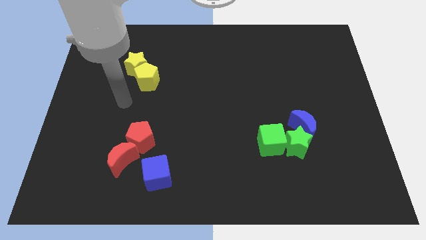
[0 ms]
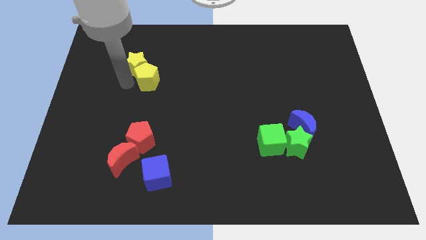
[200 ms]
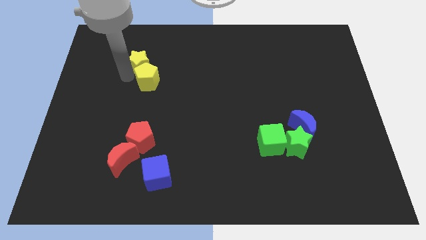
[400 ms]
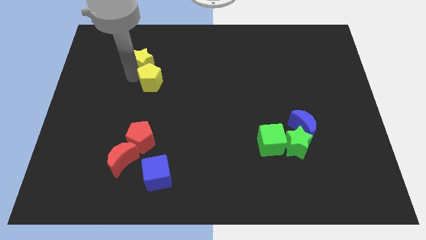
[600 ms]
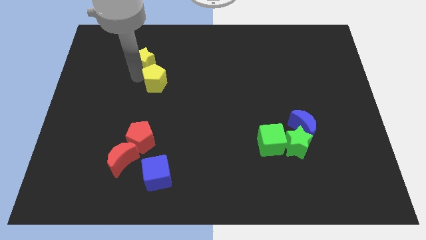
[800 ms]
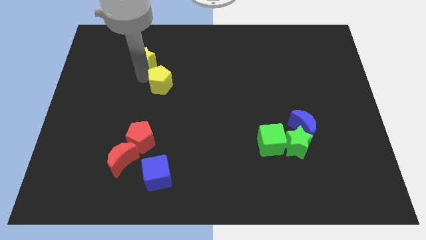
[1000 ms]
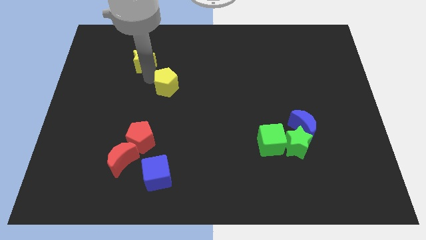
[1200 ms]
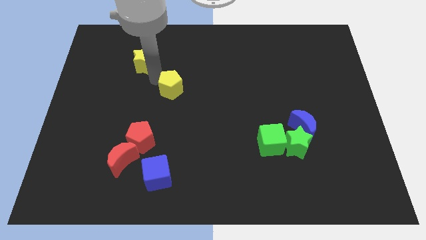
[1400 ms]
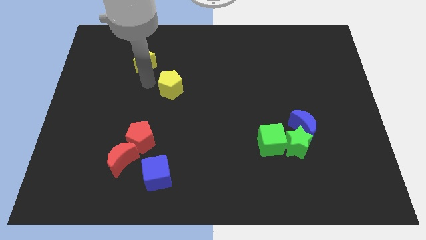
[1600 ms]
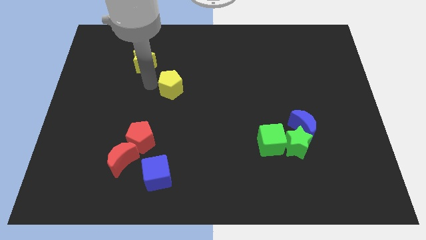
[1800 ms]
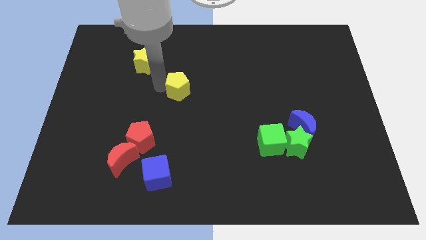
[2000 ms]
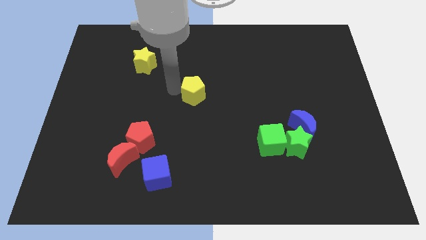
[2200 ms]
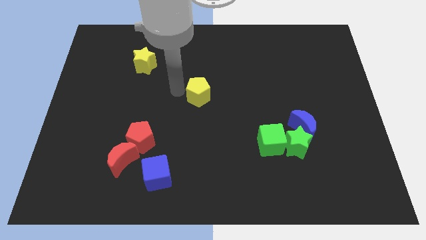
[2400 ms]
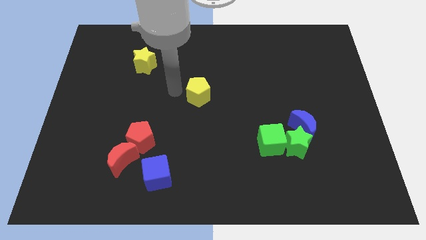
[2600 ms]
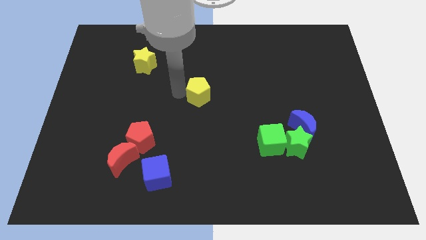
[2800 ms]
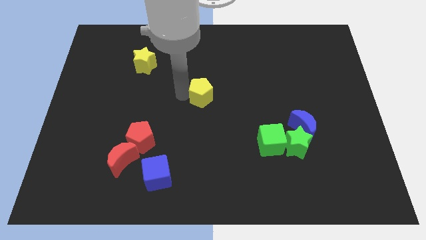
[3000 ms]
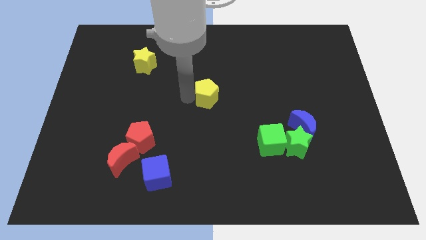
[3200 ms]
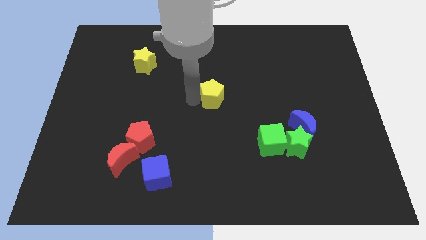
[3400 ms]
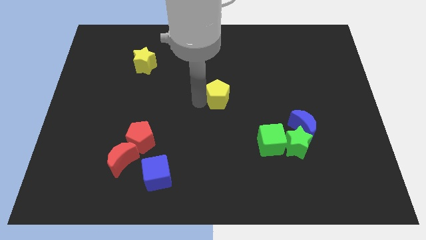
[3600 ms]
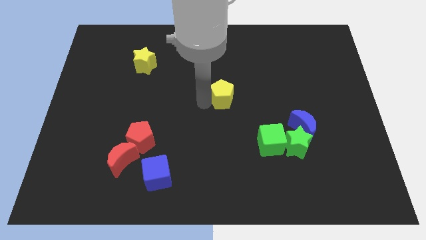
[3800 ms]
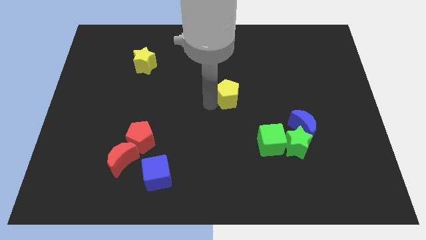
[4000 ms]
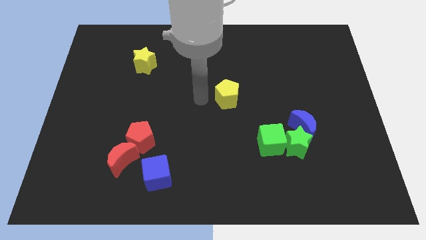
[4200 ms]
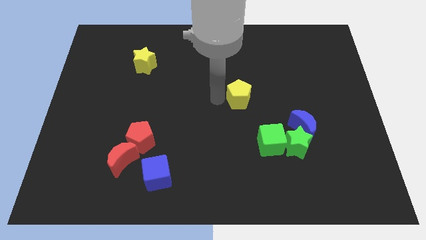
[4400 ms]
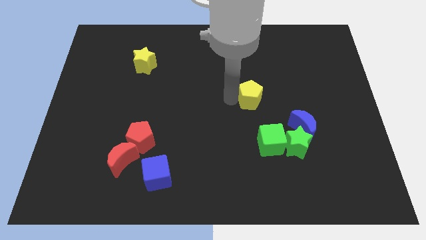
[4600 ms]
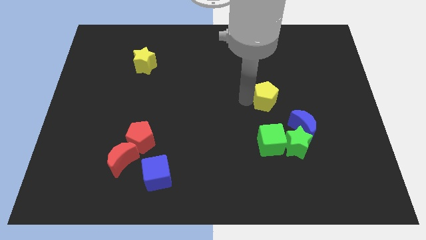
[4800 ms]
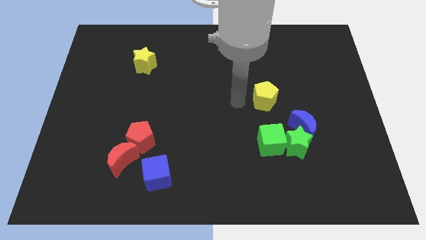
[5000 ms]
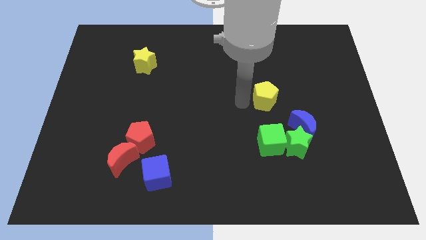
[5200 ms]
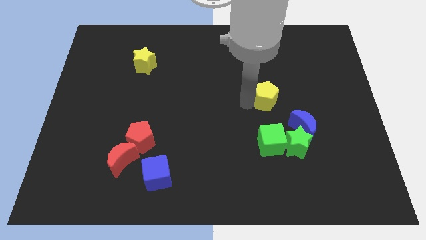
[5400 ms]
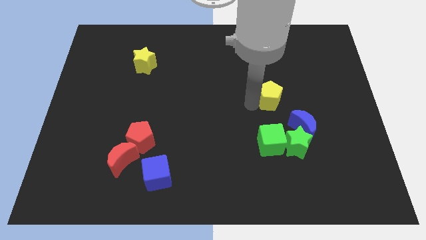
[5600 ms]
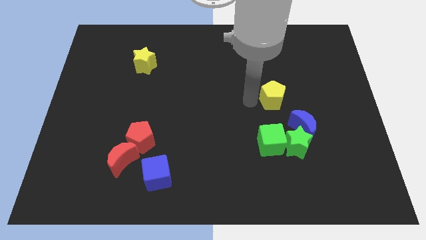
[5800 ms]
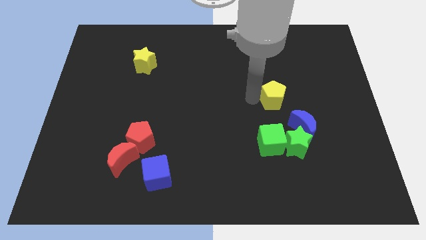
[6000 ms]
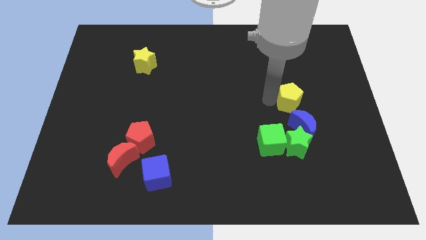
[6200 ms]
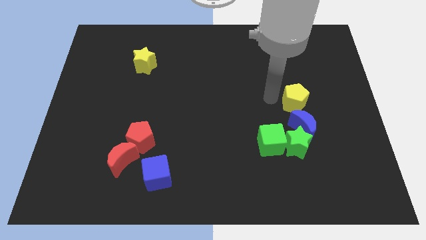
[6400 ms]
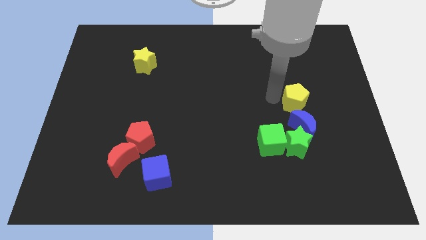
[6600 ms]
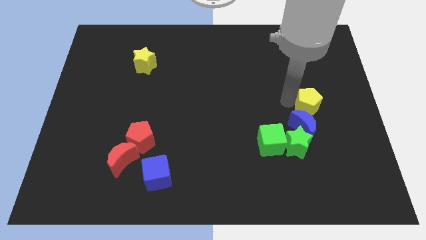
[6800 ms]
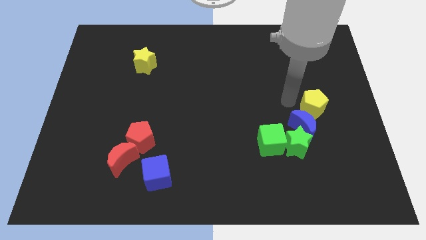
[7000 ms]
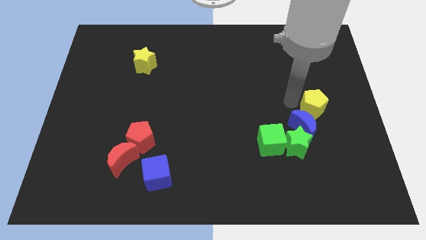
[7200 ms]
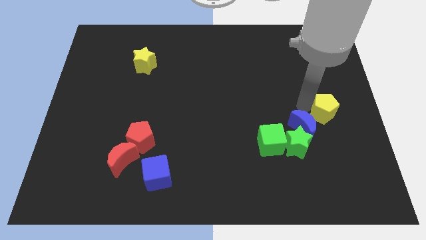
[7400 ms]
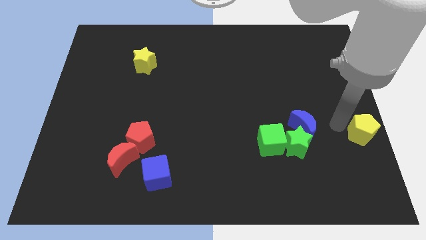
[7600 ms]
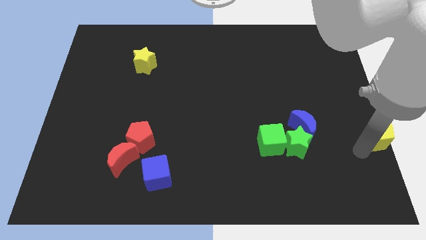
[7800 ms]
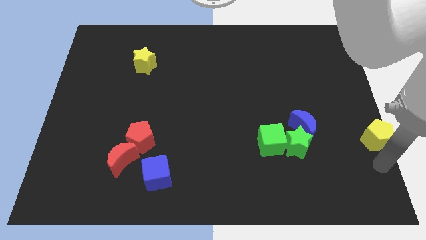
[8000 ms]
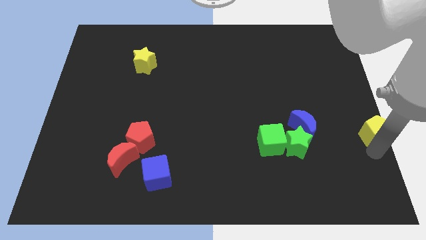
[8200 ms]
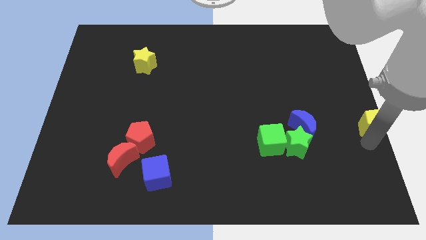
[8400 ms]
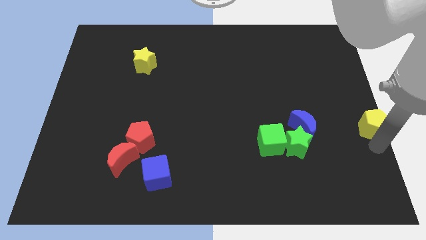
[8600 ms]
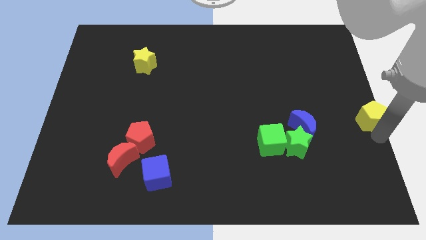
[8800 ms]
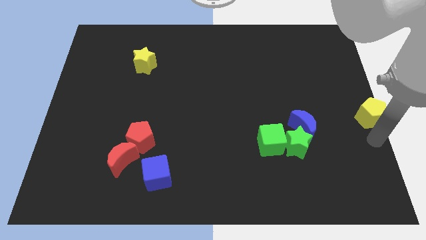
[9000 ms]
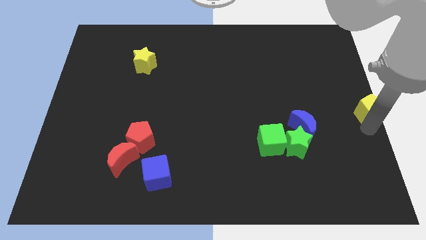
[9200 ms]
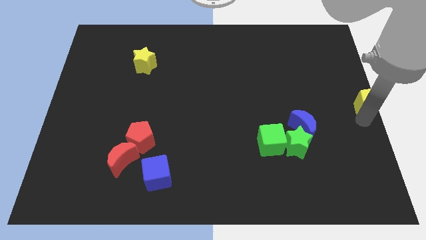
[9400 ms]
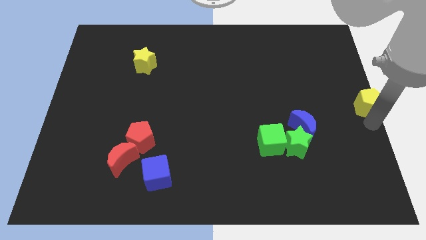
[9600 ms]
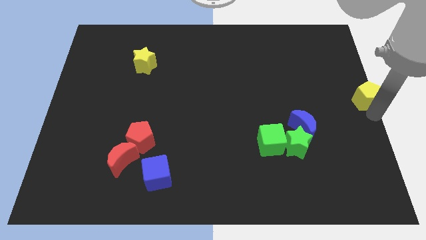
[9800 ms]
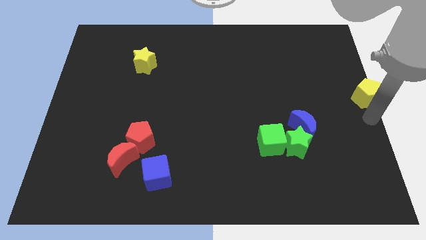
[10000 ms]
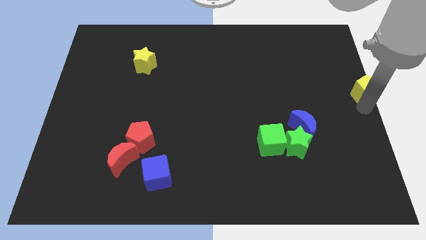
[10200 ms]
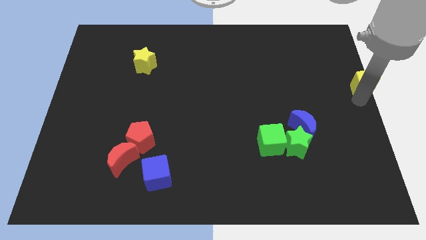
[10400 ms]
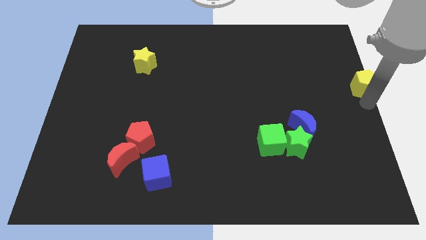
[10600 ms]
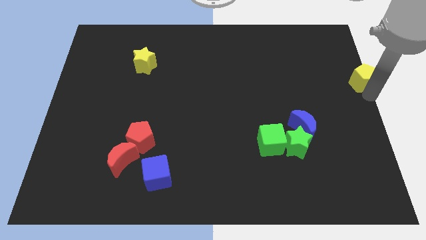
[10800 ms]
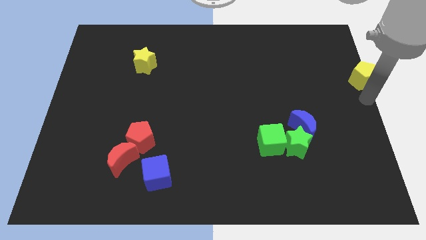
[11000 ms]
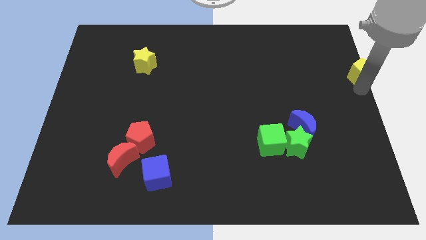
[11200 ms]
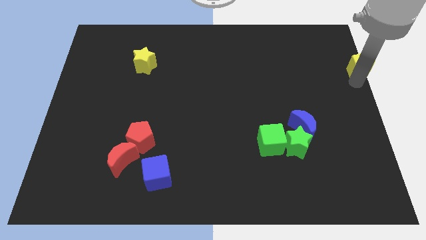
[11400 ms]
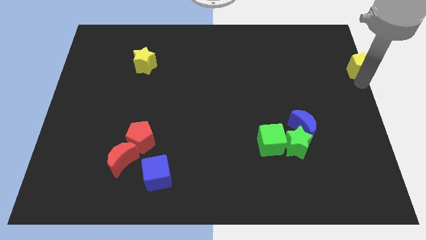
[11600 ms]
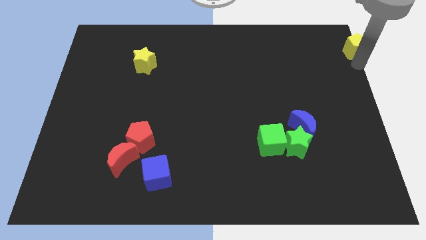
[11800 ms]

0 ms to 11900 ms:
push the yellow pentagon to the top right of the board

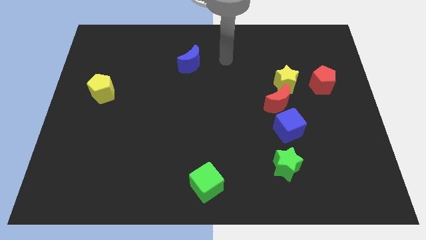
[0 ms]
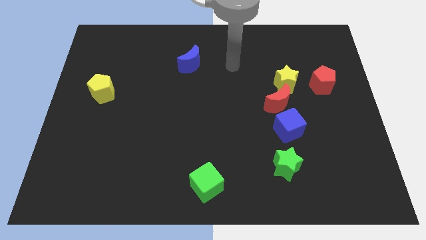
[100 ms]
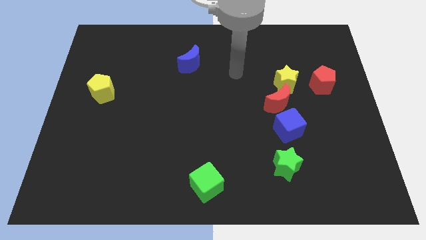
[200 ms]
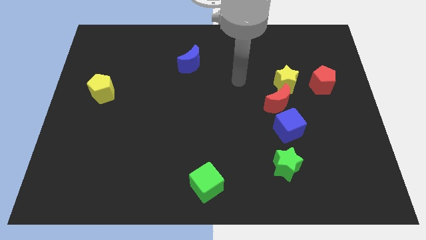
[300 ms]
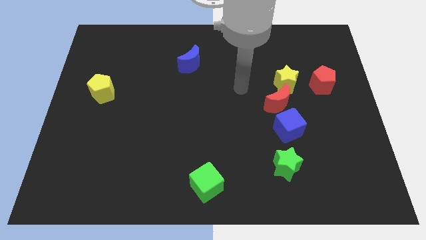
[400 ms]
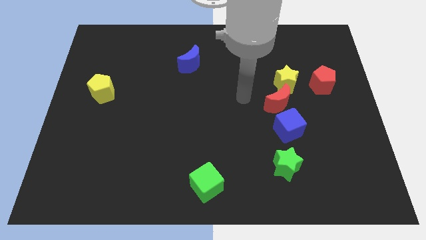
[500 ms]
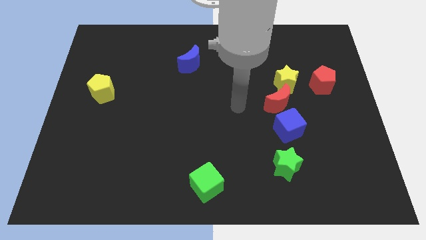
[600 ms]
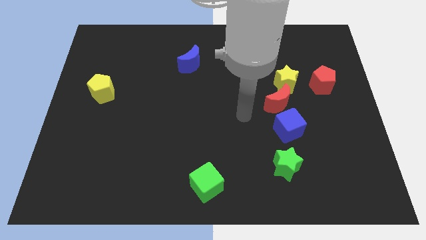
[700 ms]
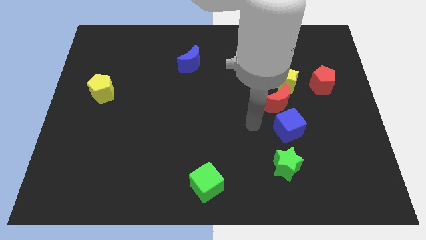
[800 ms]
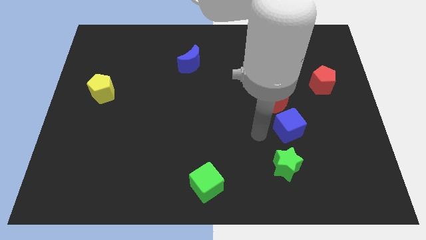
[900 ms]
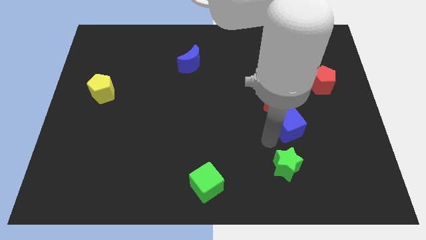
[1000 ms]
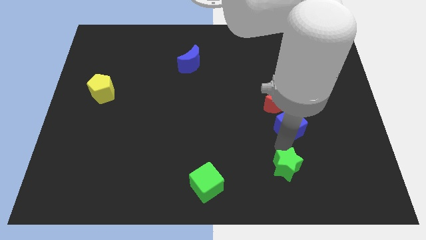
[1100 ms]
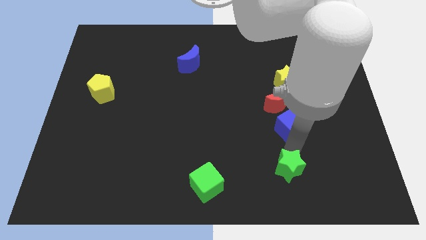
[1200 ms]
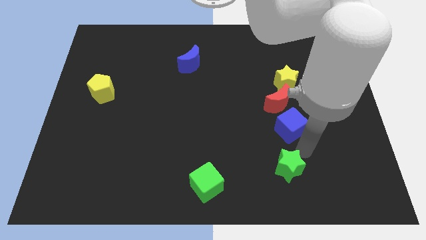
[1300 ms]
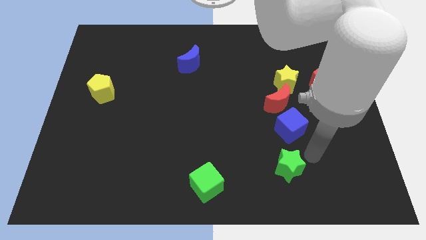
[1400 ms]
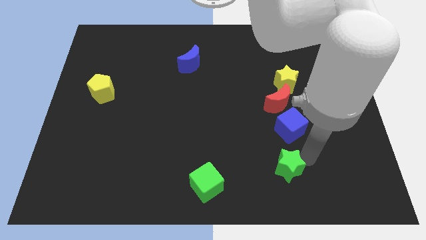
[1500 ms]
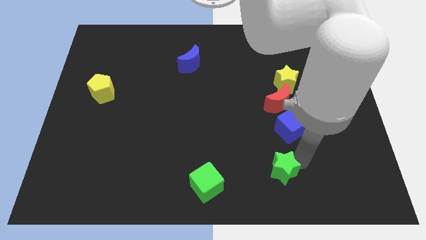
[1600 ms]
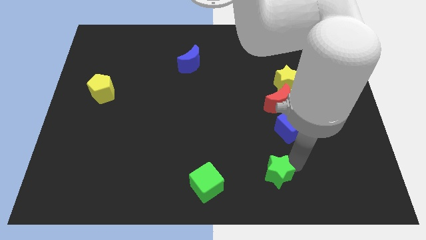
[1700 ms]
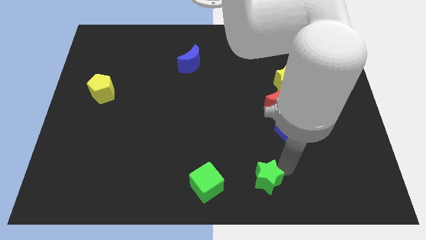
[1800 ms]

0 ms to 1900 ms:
slide the green star to the bottom side
